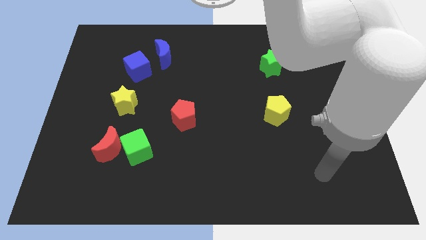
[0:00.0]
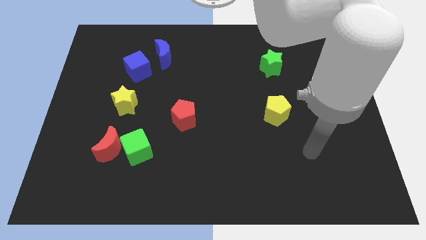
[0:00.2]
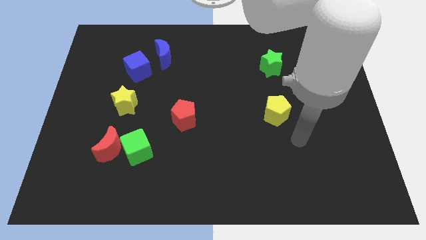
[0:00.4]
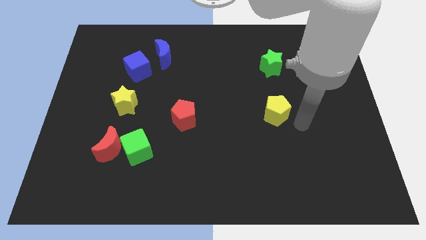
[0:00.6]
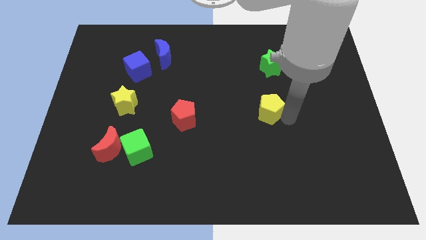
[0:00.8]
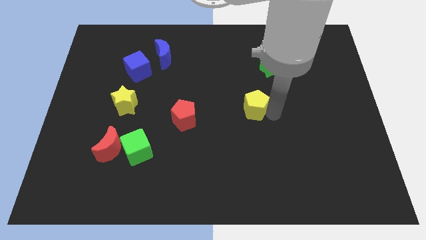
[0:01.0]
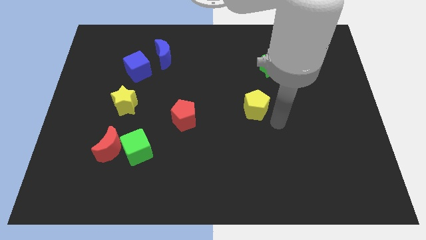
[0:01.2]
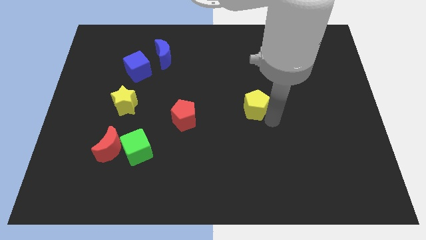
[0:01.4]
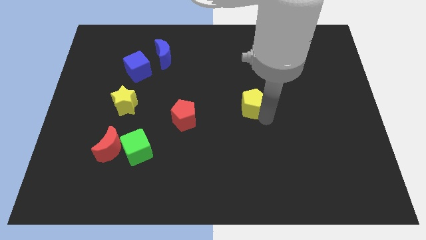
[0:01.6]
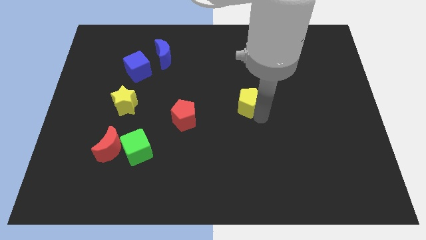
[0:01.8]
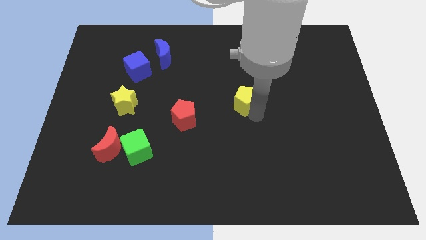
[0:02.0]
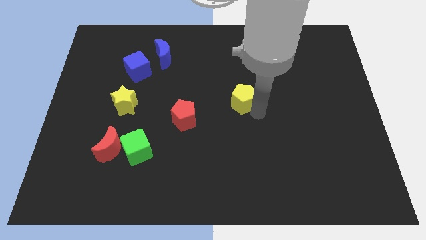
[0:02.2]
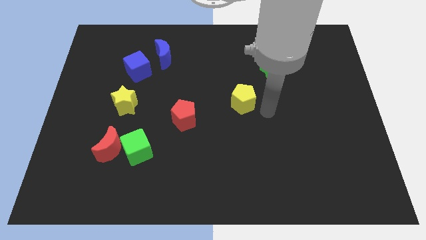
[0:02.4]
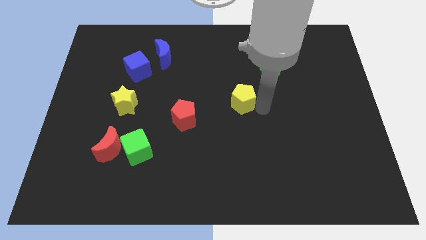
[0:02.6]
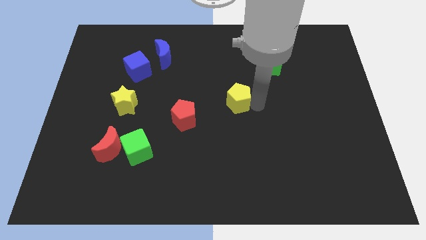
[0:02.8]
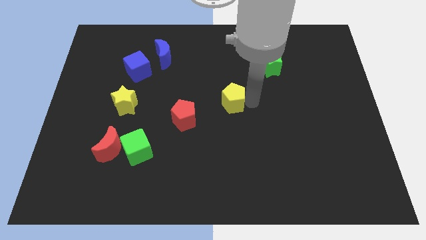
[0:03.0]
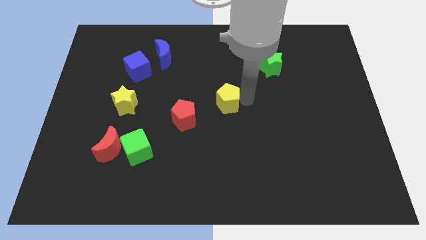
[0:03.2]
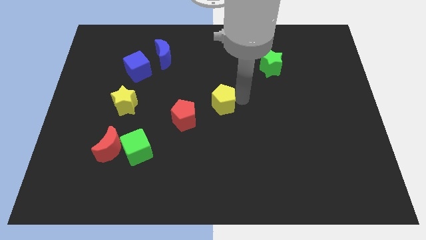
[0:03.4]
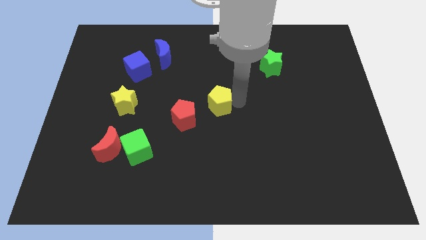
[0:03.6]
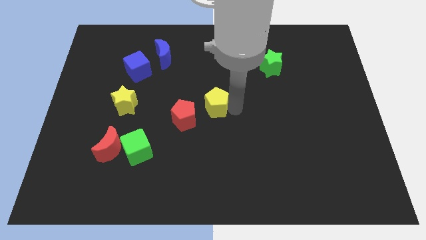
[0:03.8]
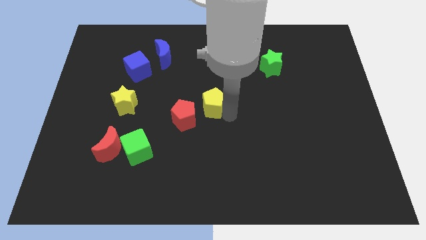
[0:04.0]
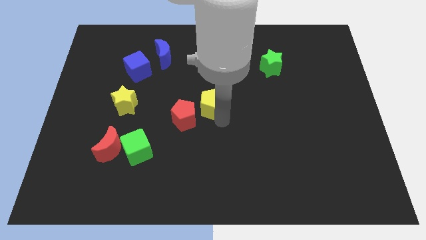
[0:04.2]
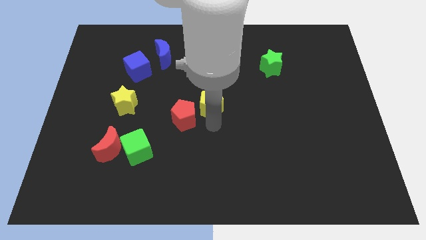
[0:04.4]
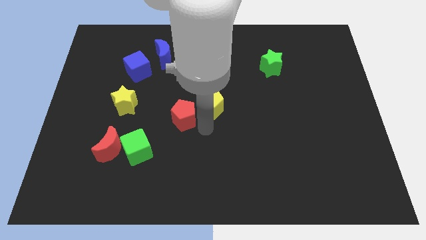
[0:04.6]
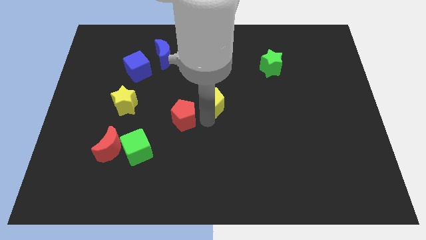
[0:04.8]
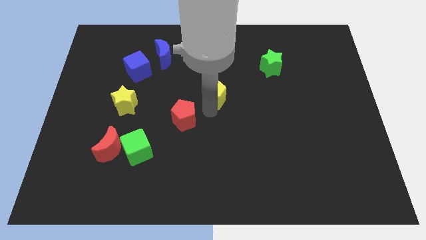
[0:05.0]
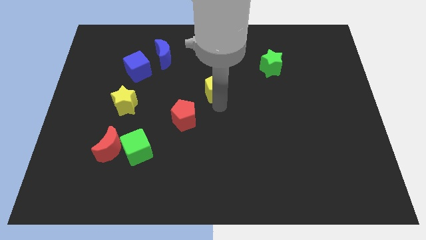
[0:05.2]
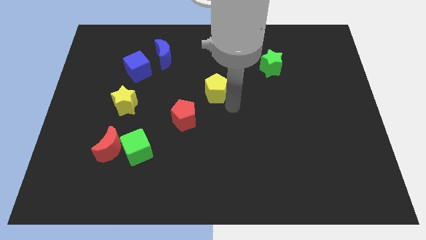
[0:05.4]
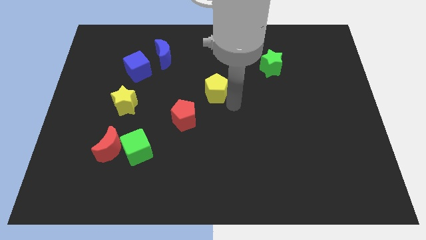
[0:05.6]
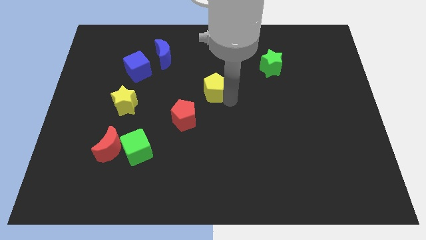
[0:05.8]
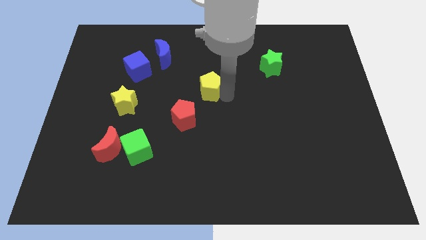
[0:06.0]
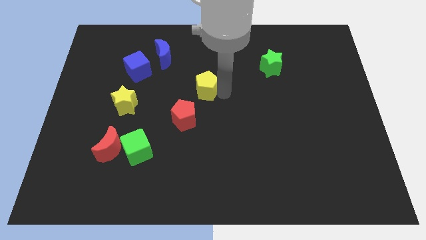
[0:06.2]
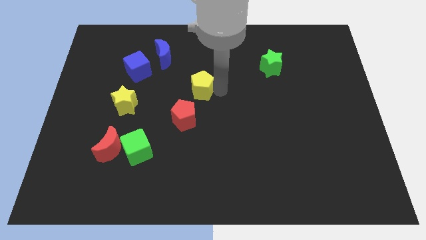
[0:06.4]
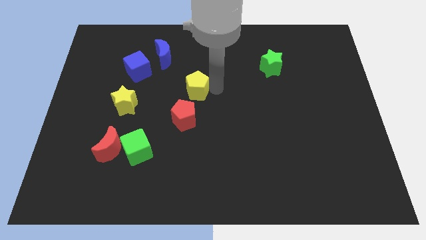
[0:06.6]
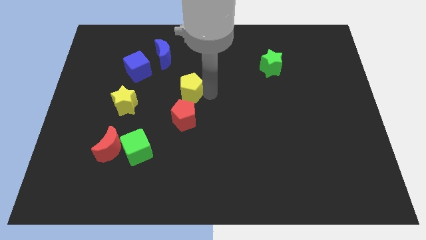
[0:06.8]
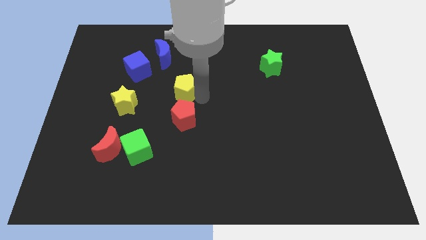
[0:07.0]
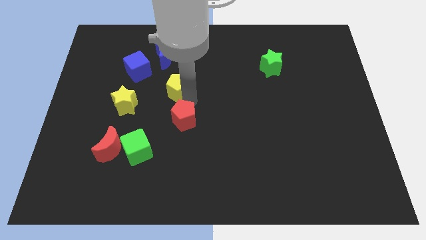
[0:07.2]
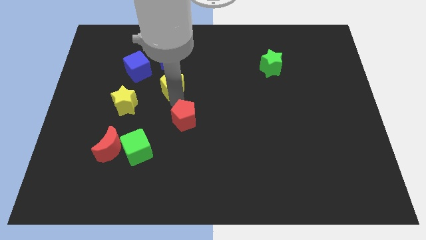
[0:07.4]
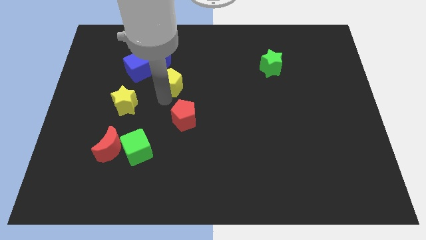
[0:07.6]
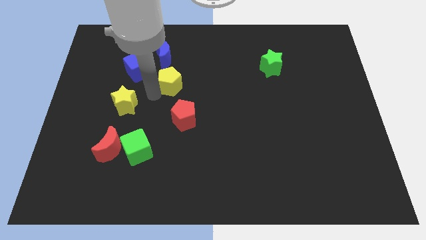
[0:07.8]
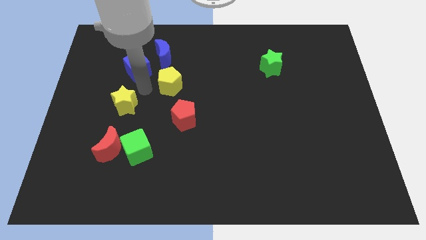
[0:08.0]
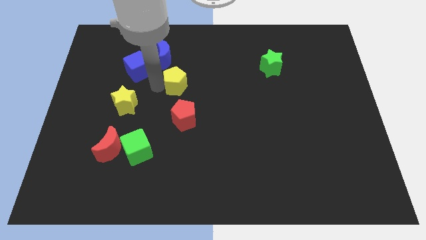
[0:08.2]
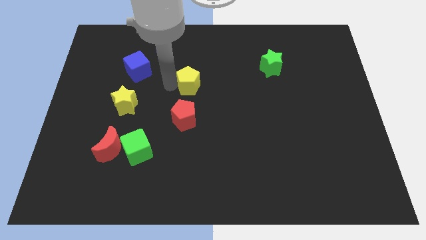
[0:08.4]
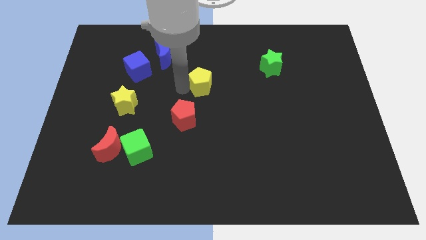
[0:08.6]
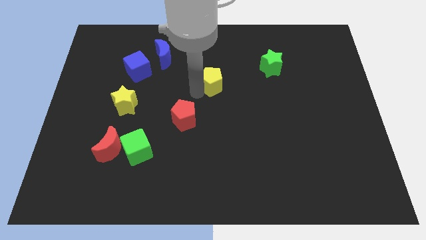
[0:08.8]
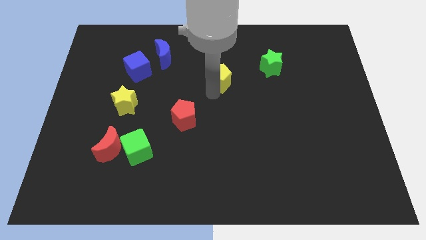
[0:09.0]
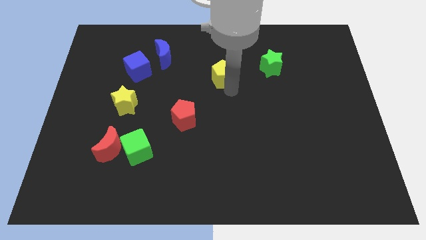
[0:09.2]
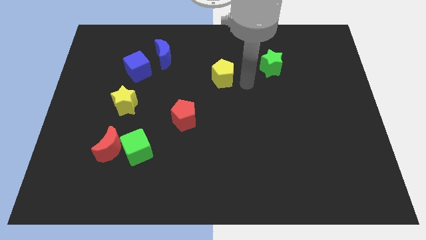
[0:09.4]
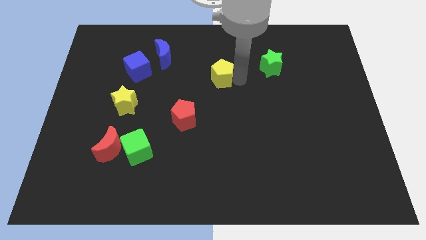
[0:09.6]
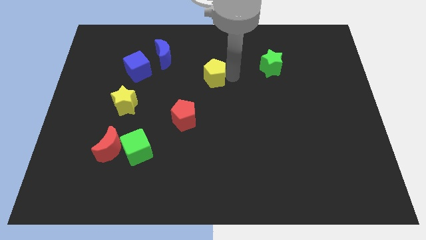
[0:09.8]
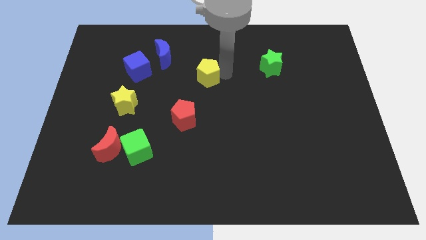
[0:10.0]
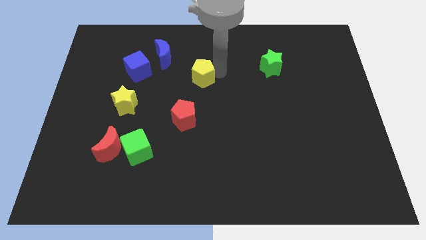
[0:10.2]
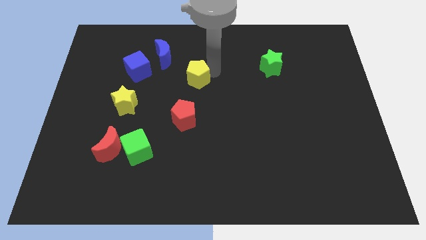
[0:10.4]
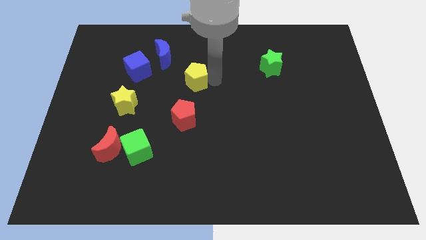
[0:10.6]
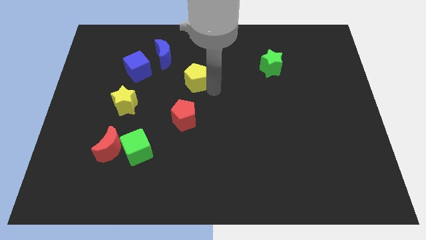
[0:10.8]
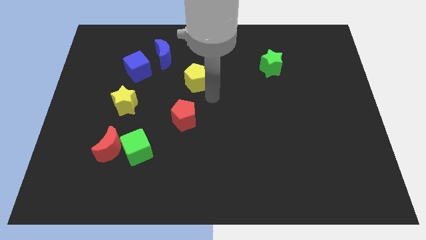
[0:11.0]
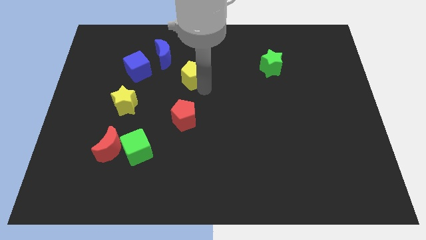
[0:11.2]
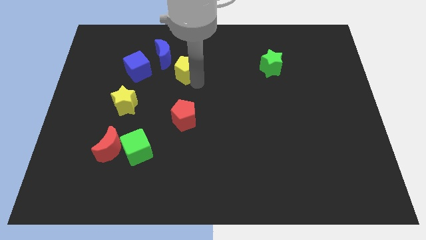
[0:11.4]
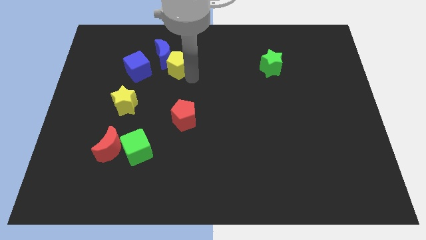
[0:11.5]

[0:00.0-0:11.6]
push the yellow pentagon towards the blue moon

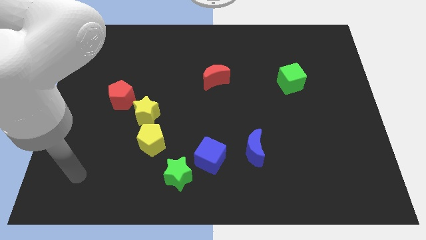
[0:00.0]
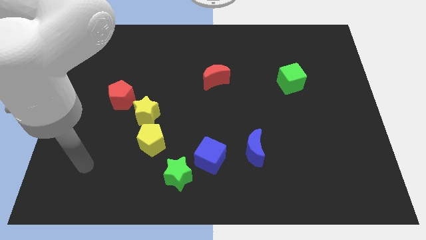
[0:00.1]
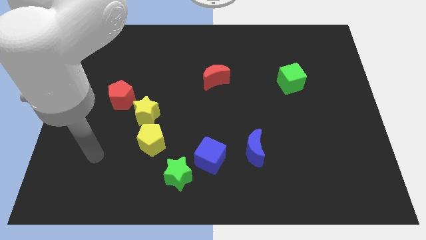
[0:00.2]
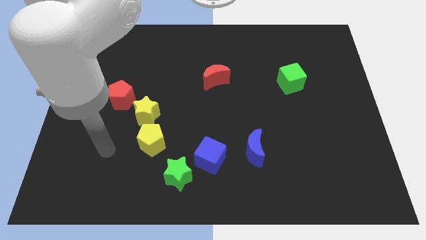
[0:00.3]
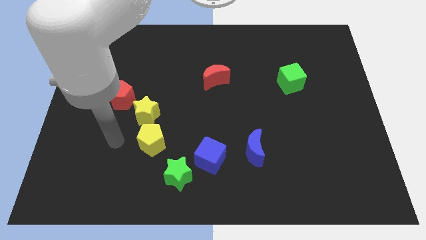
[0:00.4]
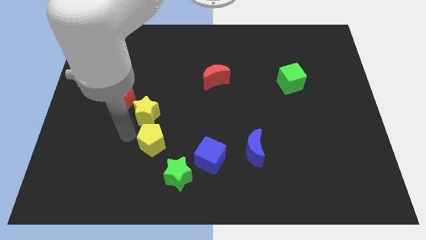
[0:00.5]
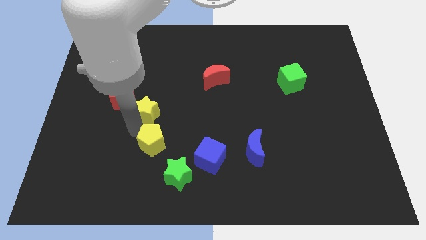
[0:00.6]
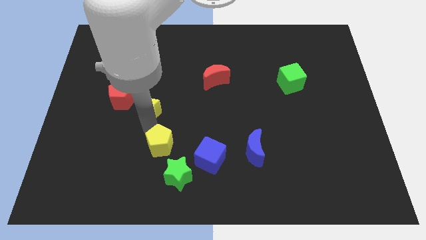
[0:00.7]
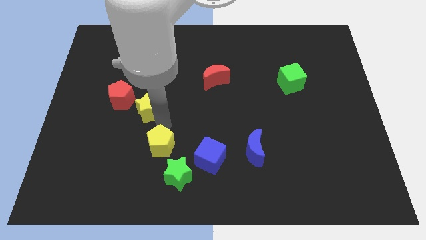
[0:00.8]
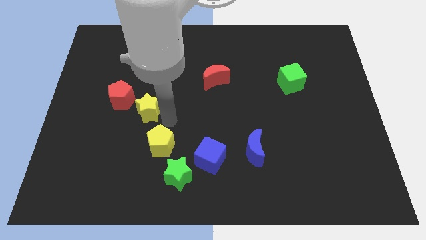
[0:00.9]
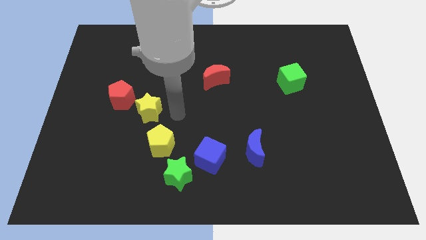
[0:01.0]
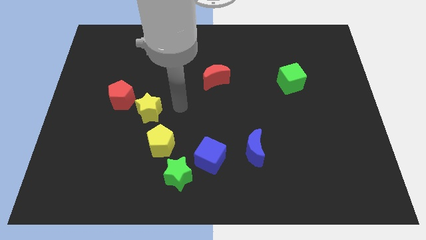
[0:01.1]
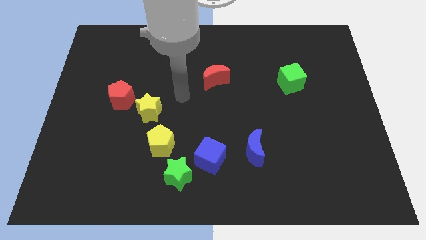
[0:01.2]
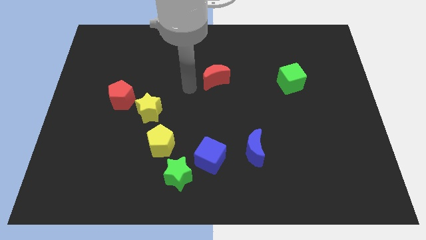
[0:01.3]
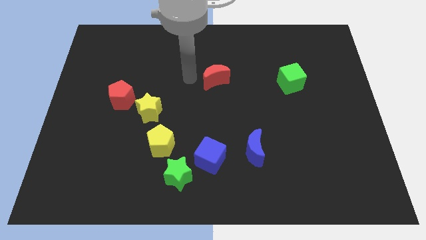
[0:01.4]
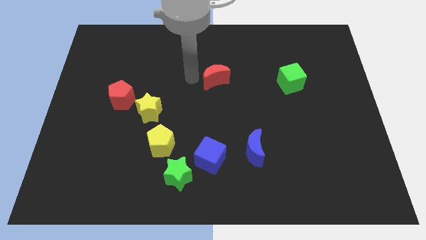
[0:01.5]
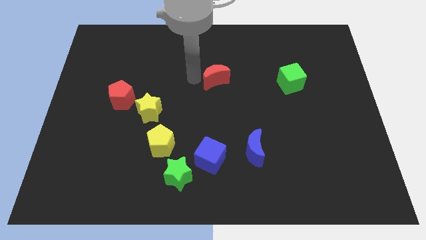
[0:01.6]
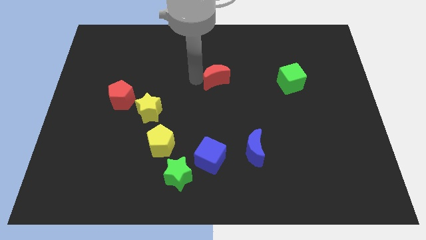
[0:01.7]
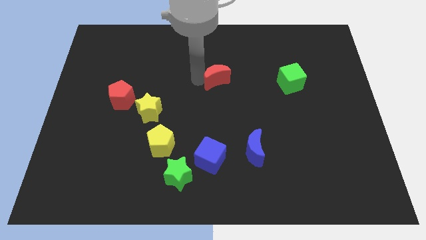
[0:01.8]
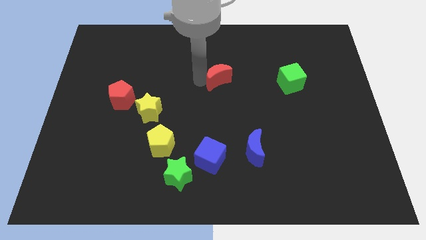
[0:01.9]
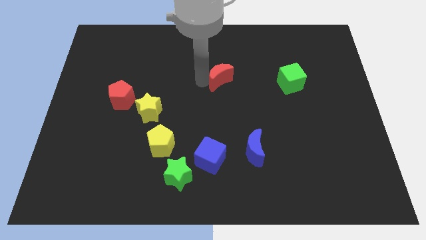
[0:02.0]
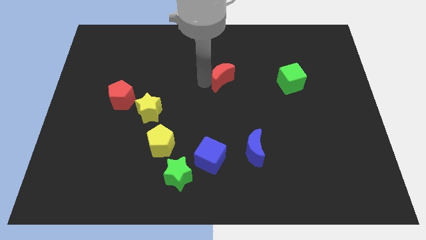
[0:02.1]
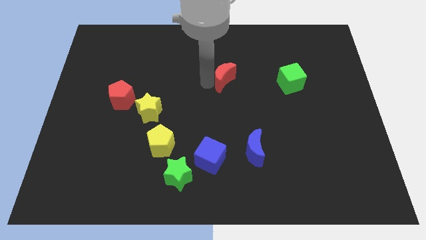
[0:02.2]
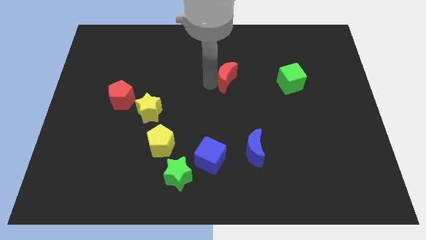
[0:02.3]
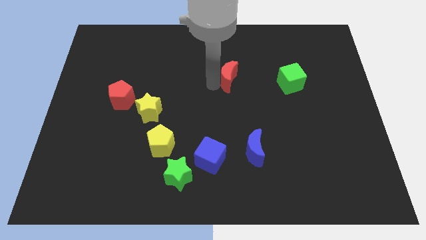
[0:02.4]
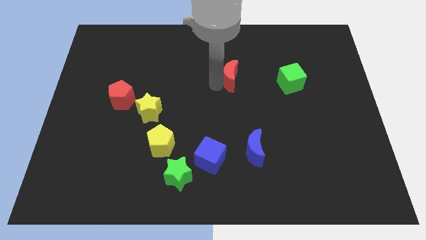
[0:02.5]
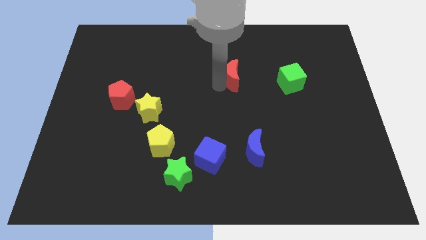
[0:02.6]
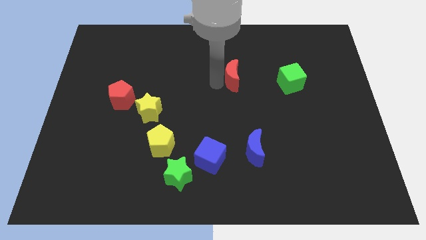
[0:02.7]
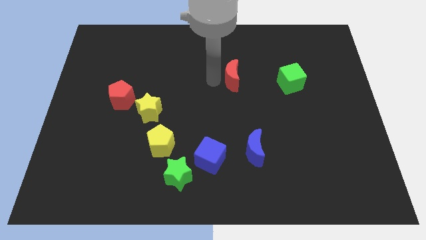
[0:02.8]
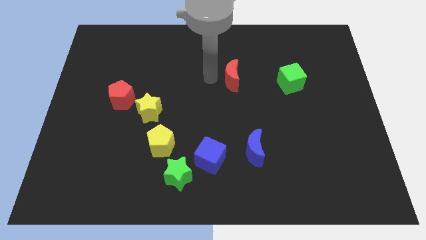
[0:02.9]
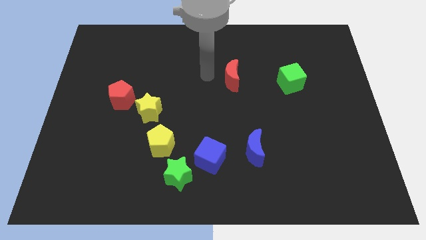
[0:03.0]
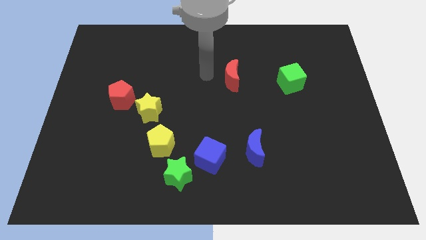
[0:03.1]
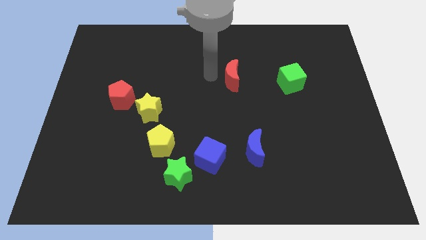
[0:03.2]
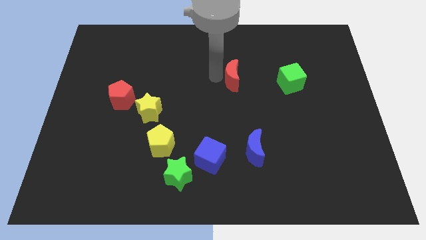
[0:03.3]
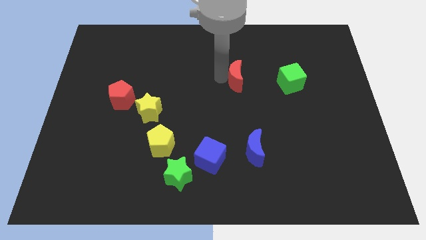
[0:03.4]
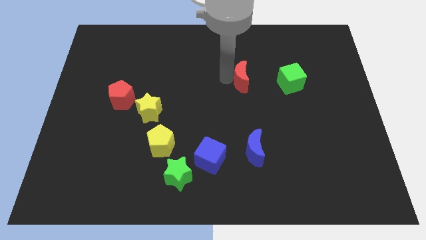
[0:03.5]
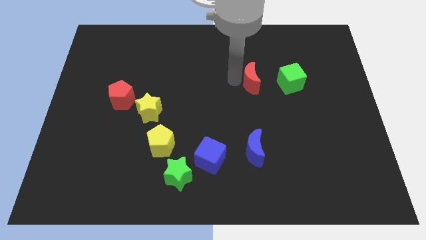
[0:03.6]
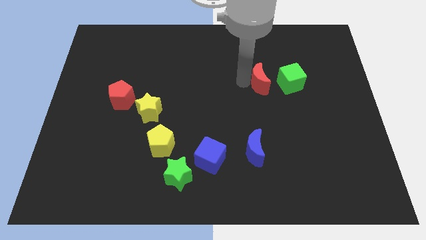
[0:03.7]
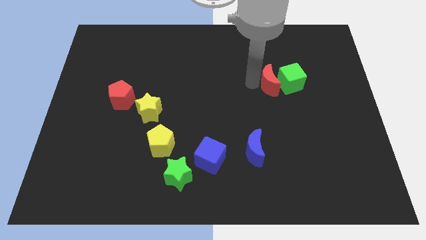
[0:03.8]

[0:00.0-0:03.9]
put the red moon towards the green cube
